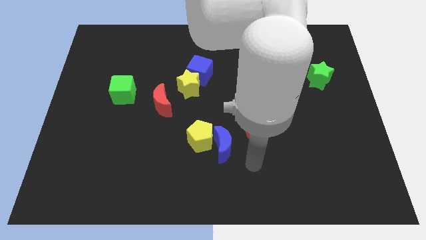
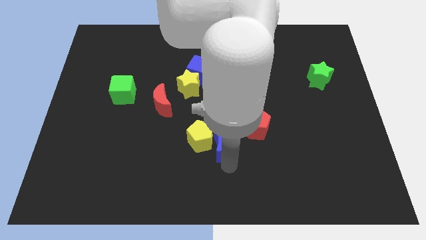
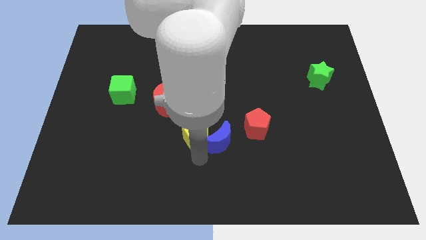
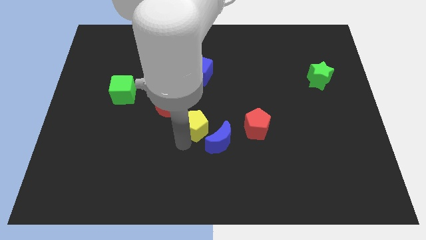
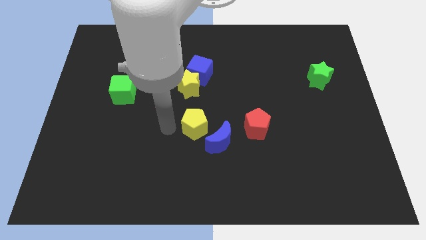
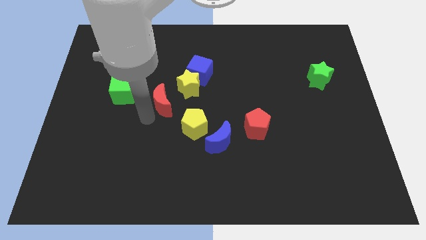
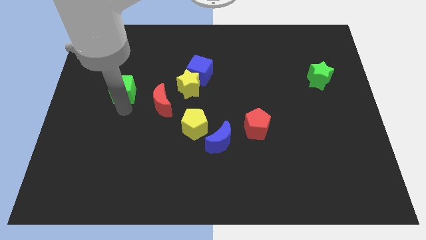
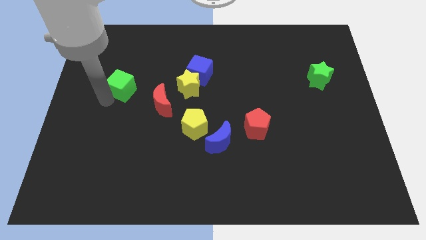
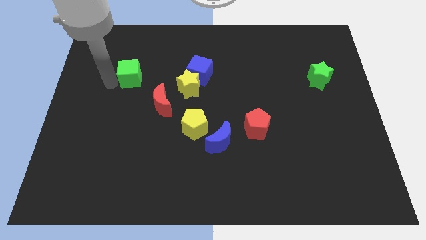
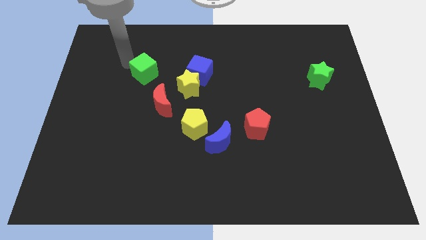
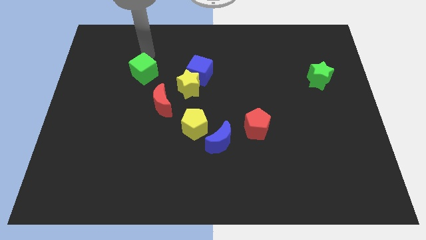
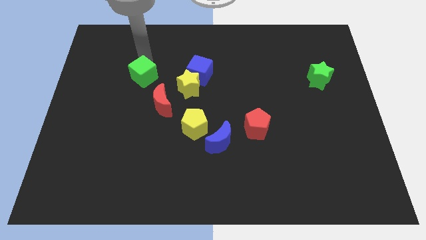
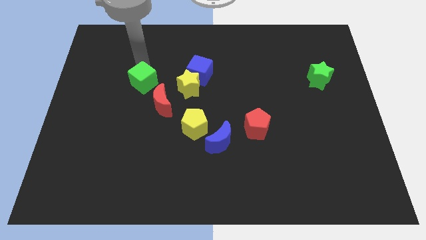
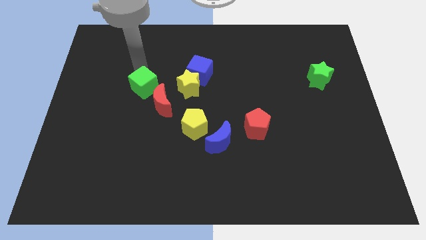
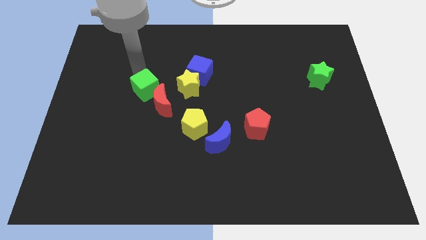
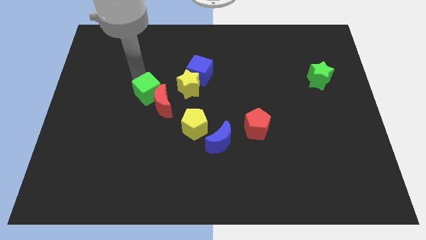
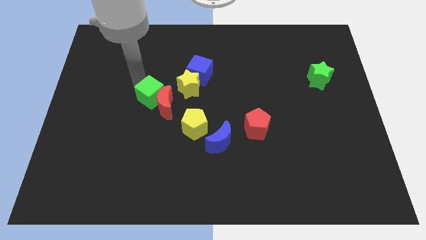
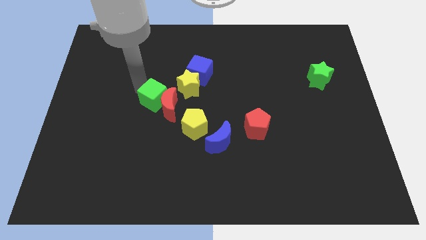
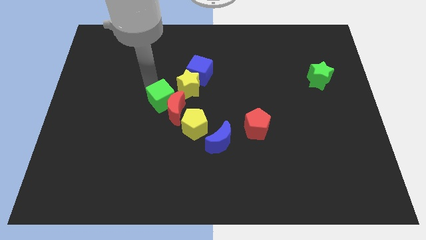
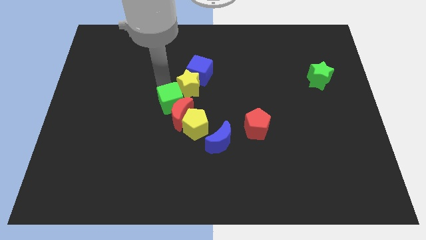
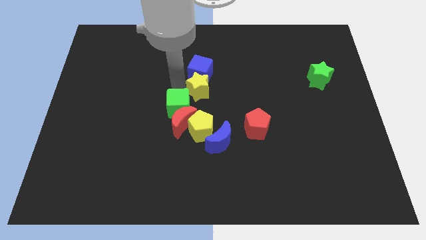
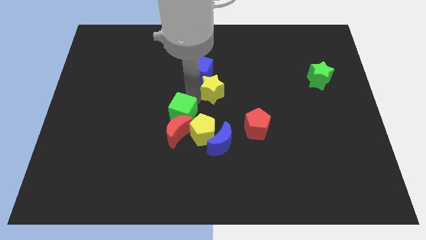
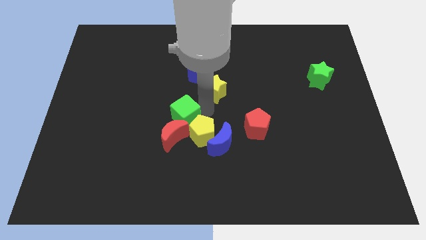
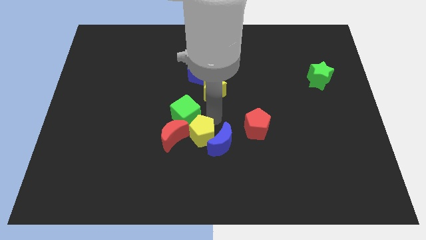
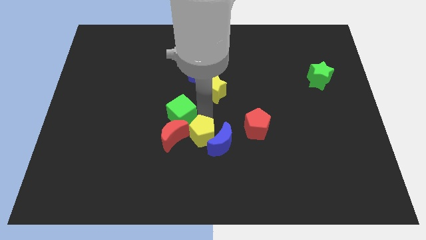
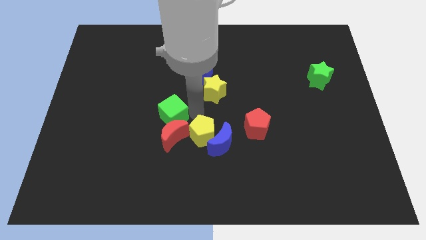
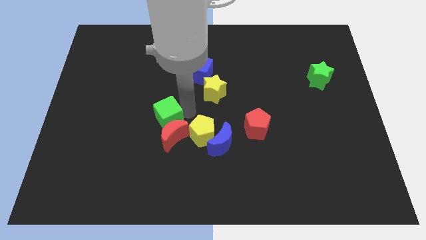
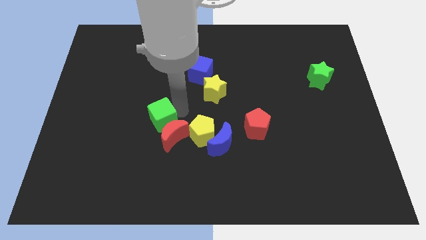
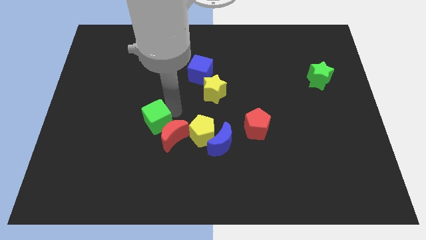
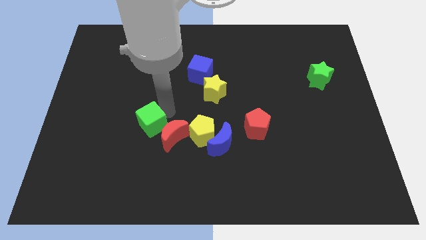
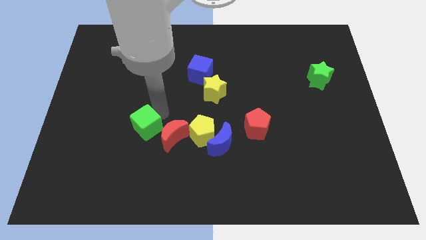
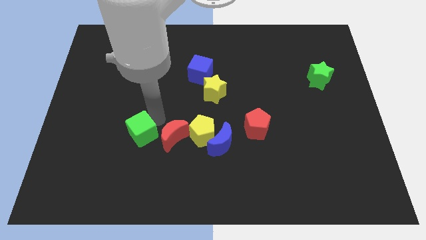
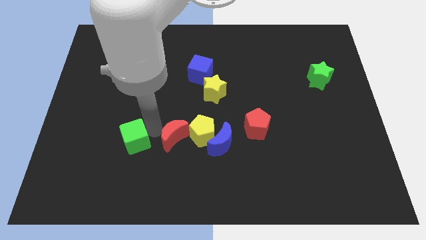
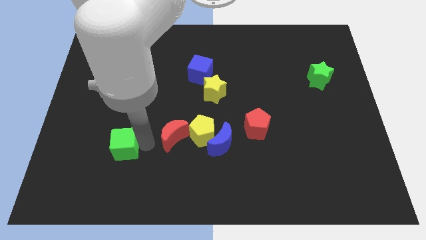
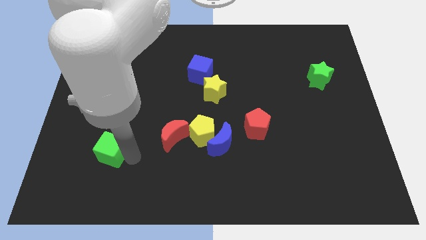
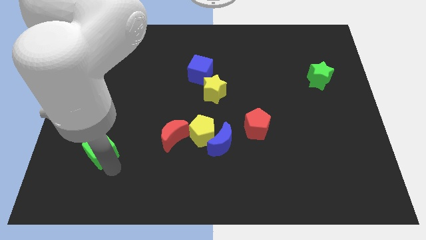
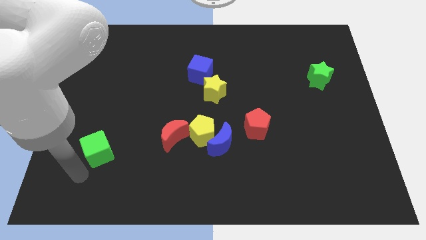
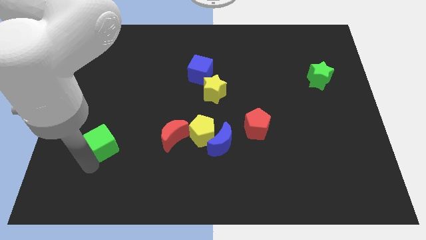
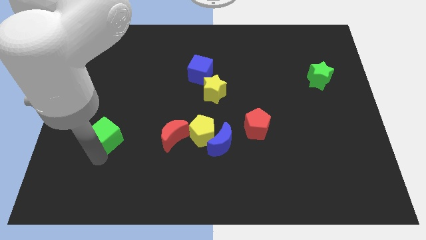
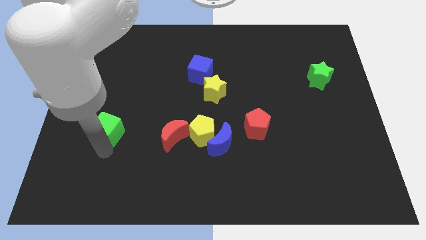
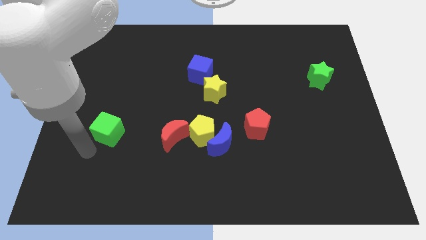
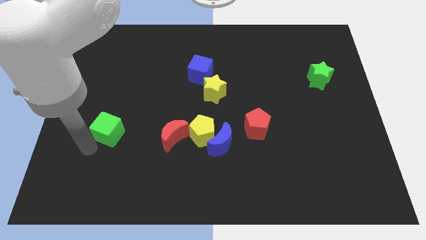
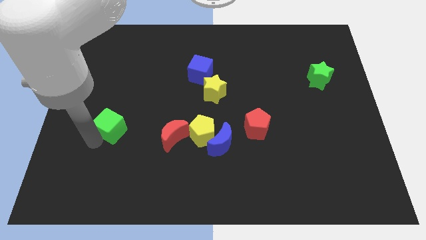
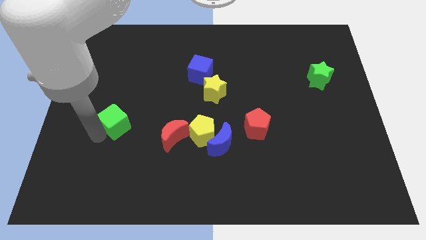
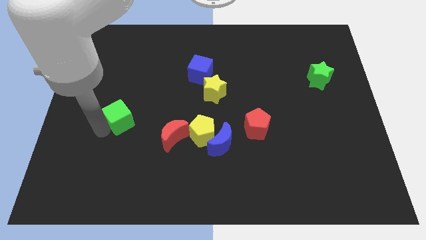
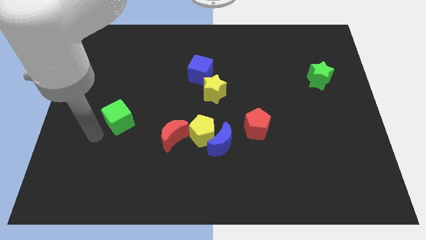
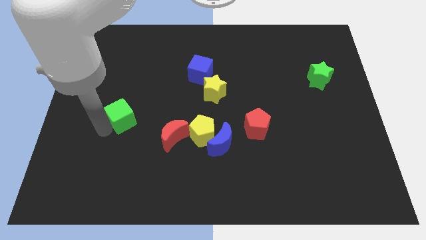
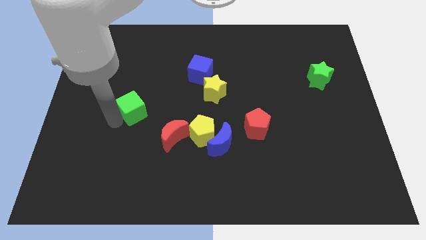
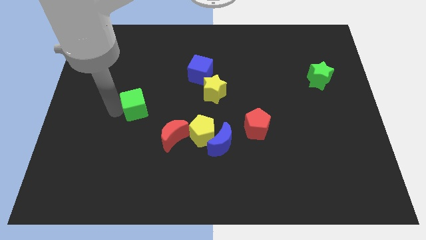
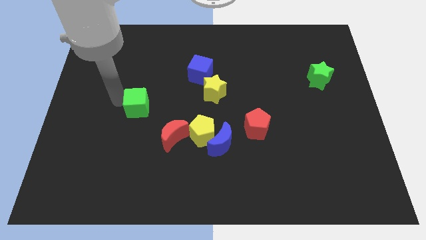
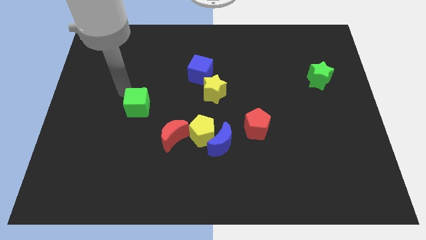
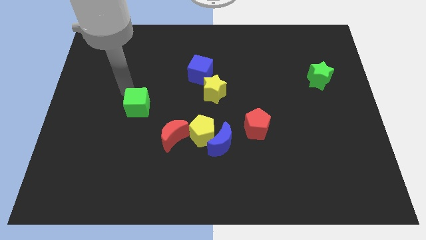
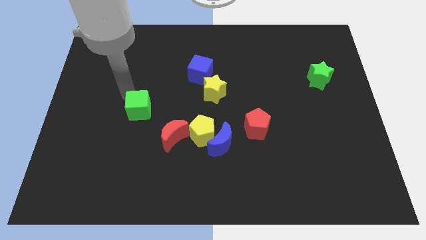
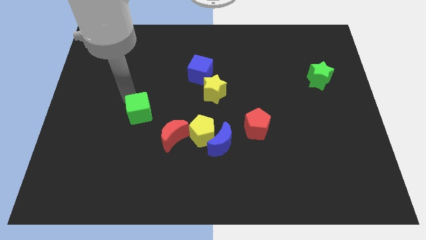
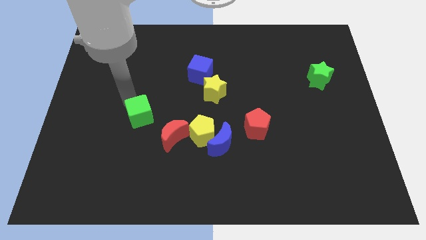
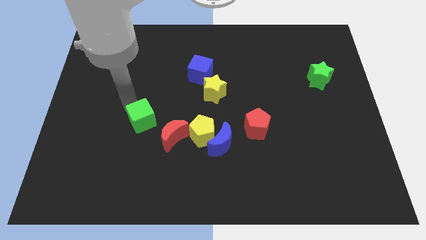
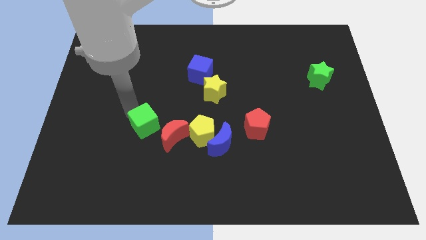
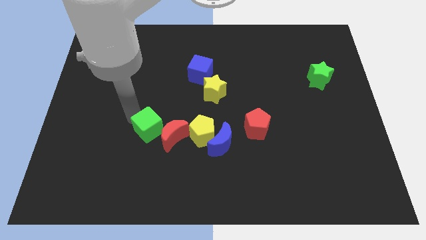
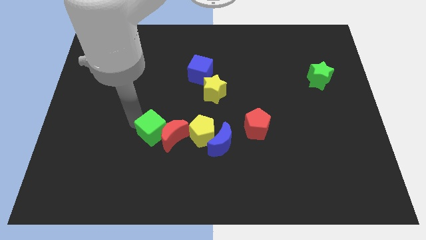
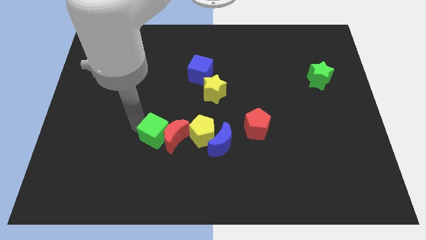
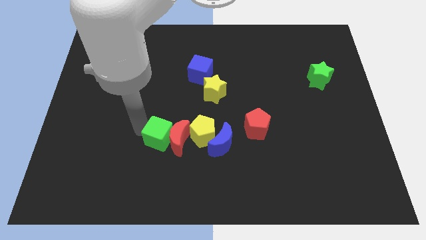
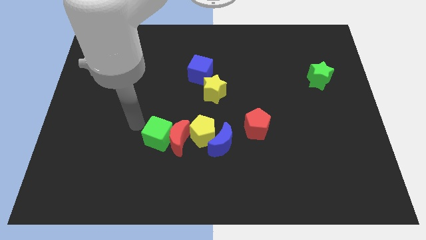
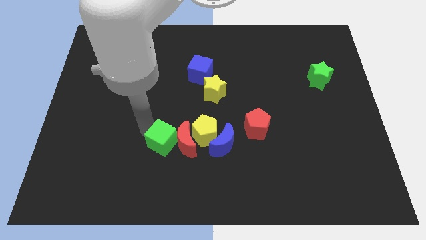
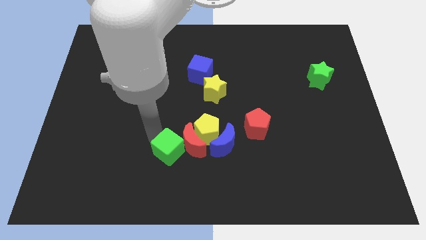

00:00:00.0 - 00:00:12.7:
push the green cube downwards and to the right diagonally

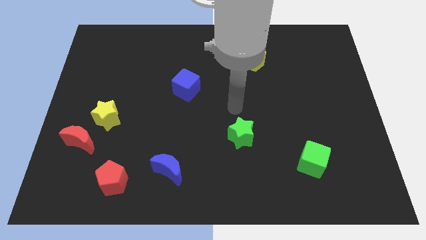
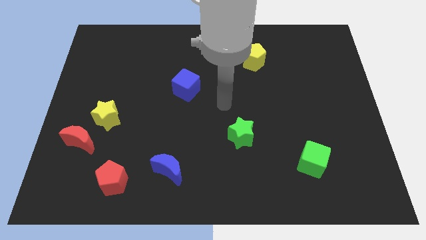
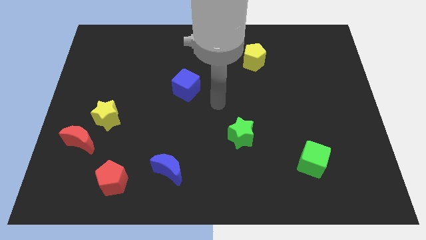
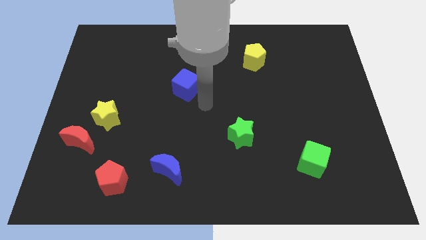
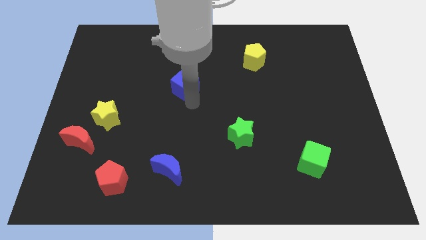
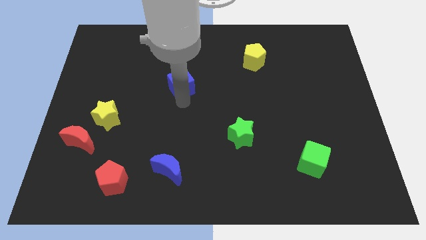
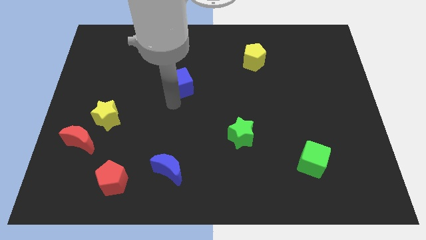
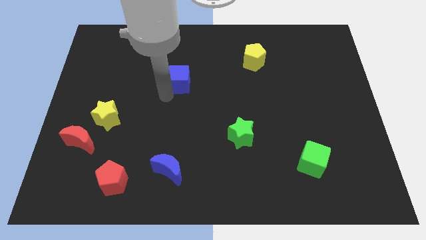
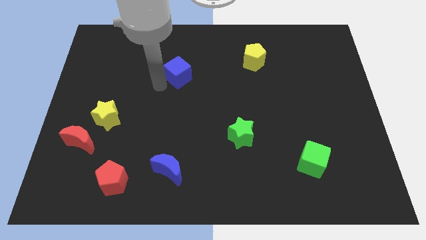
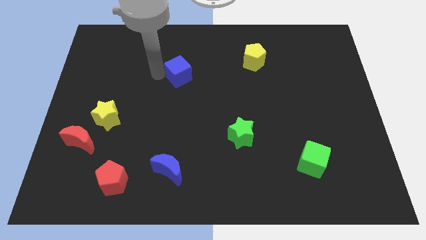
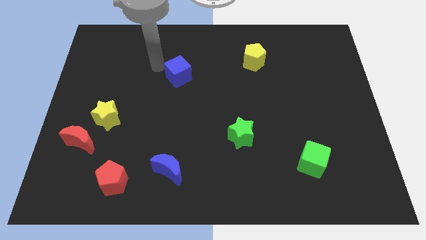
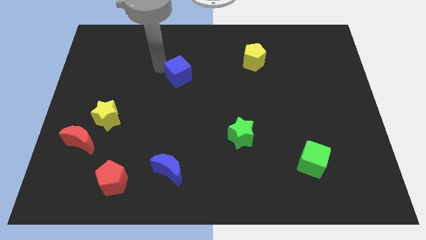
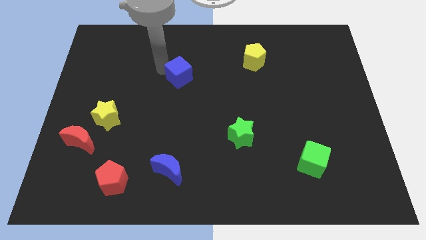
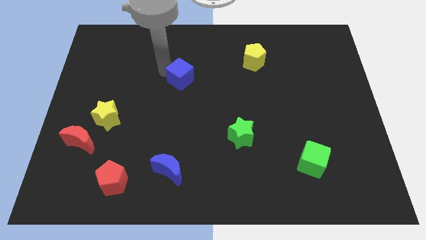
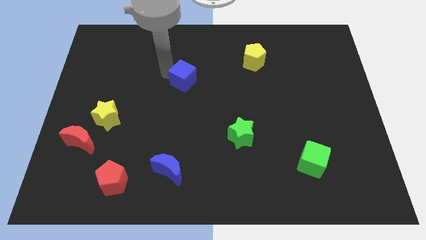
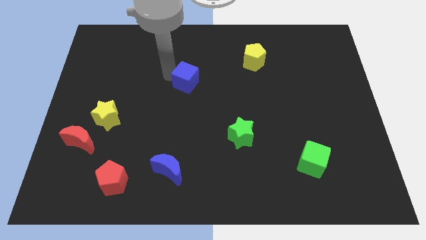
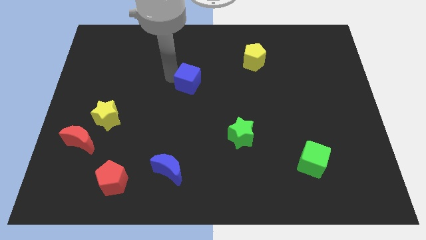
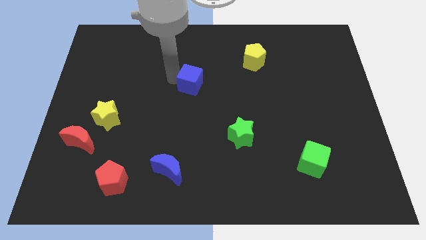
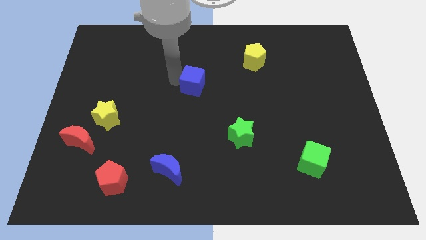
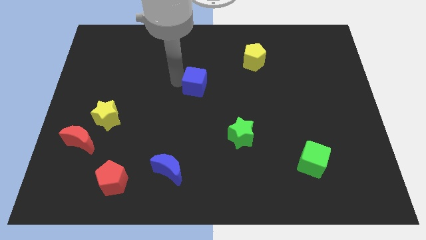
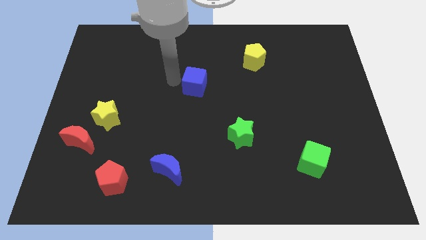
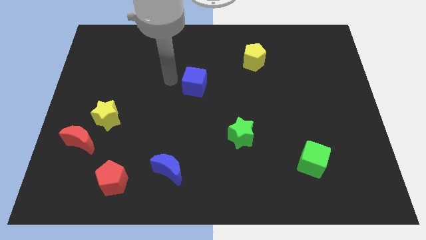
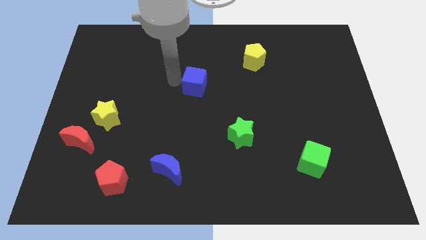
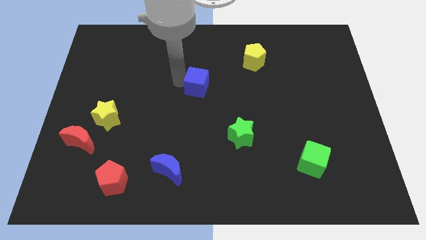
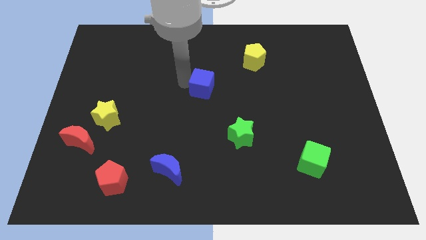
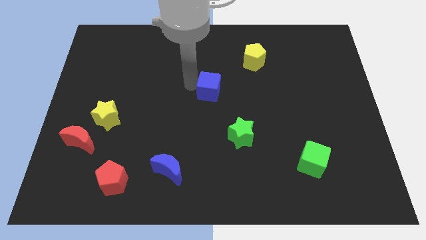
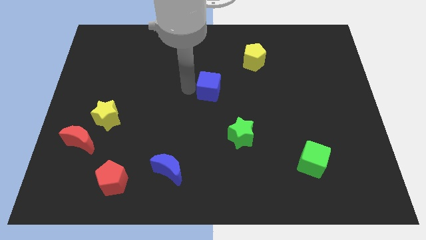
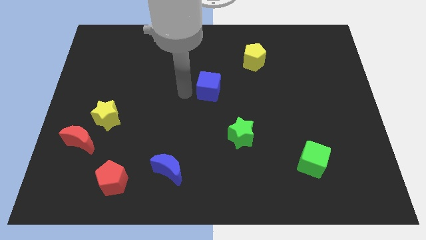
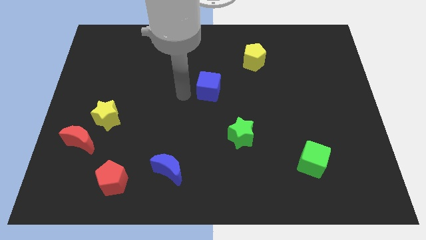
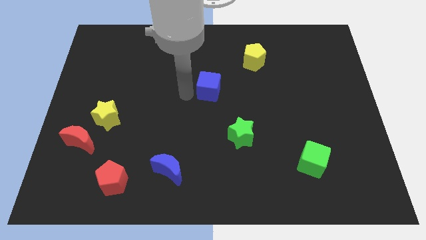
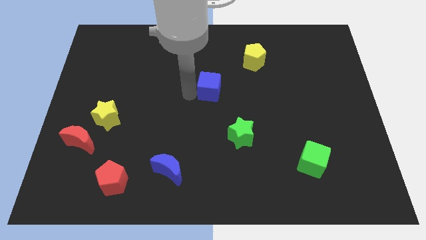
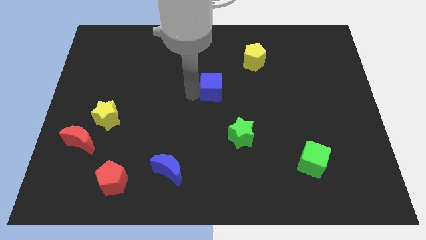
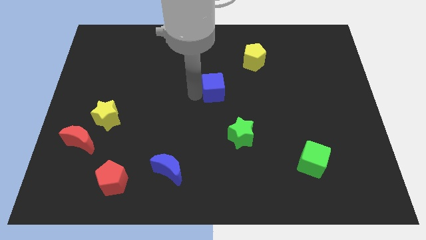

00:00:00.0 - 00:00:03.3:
slide the blue cube a little bit to the right
